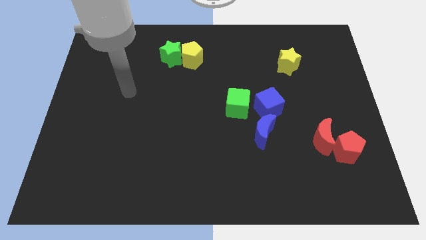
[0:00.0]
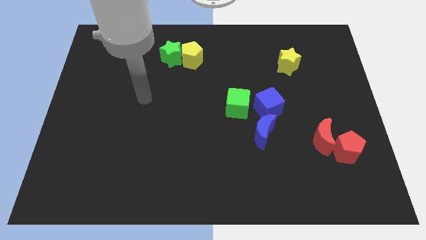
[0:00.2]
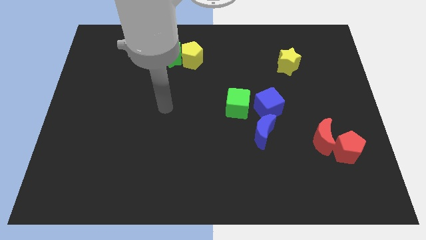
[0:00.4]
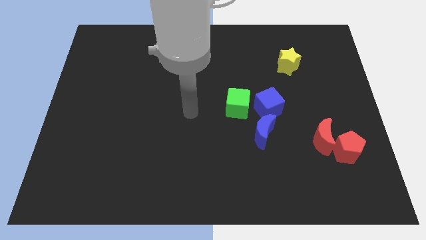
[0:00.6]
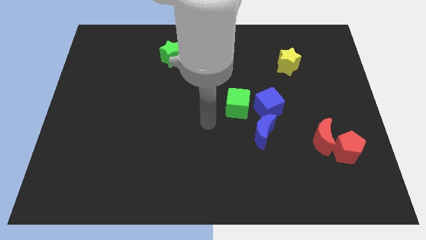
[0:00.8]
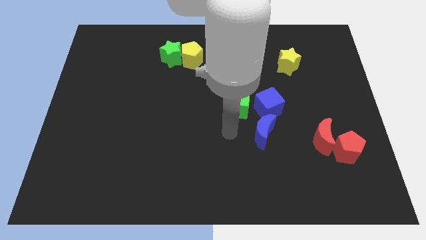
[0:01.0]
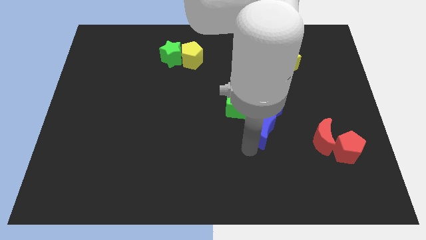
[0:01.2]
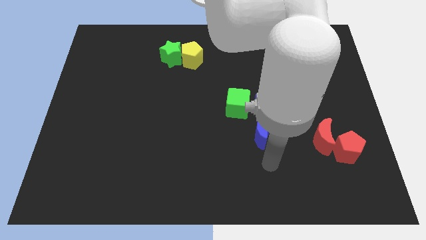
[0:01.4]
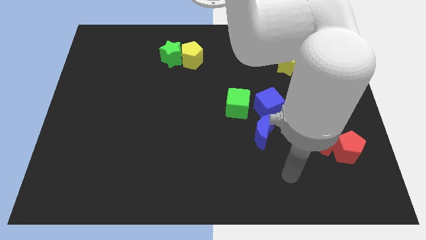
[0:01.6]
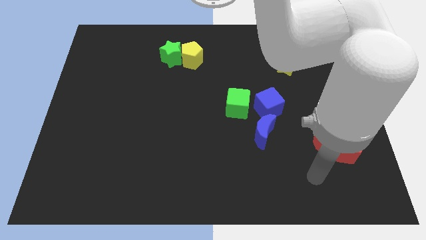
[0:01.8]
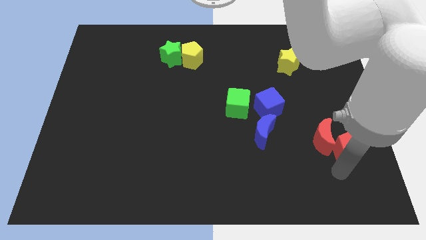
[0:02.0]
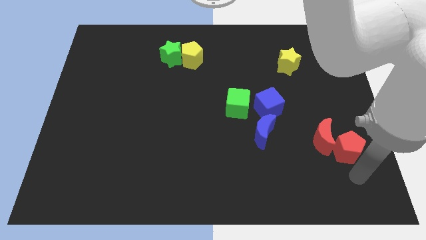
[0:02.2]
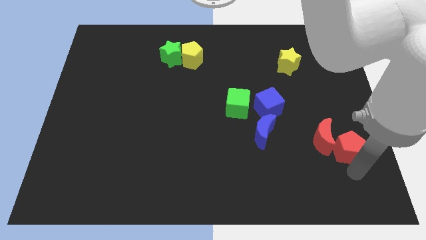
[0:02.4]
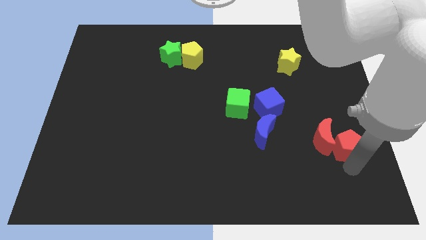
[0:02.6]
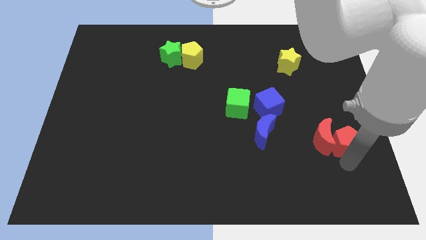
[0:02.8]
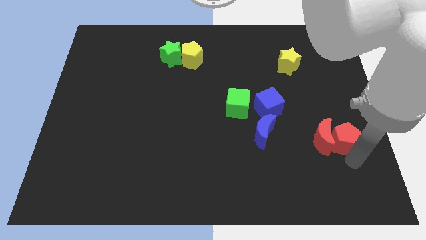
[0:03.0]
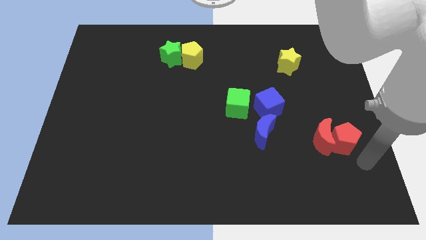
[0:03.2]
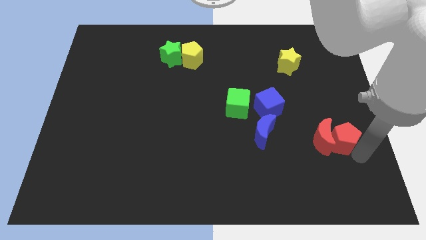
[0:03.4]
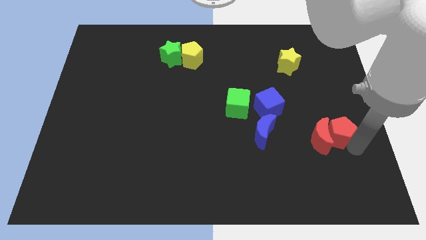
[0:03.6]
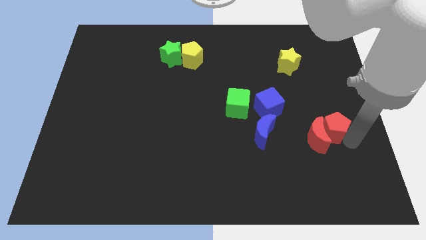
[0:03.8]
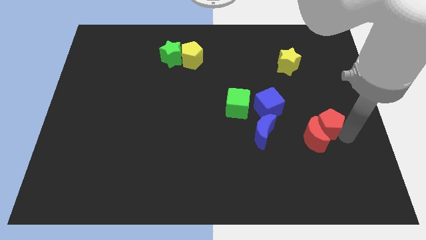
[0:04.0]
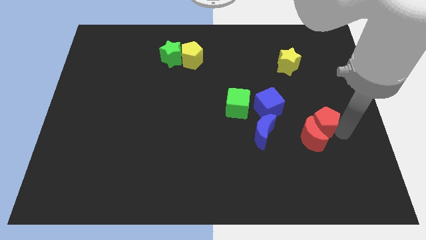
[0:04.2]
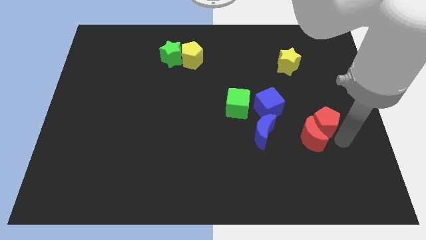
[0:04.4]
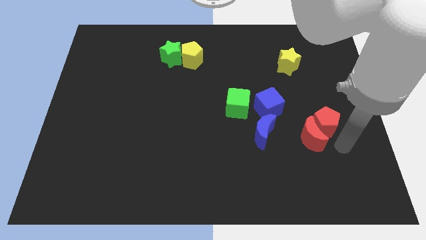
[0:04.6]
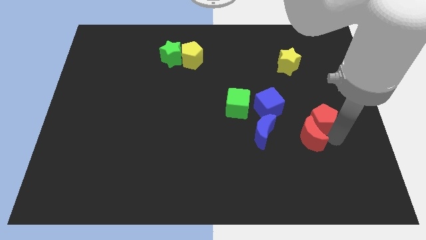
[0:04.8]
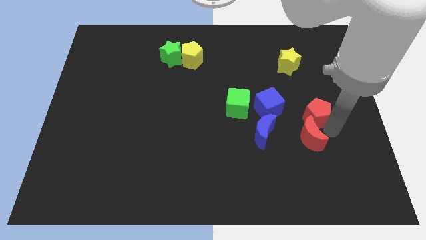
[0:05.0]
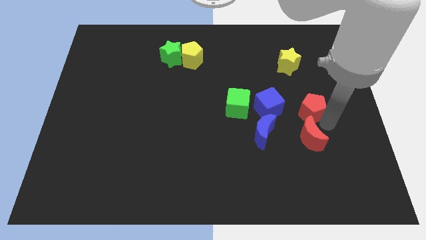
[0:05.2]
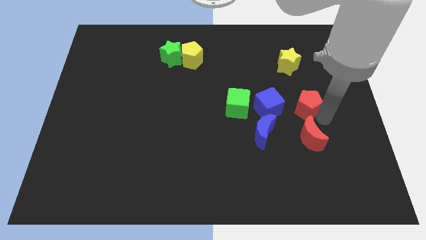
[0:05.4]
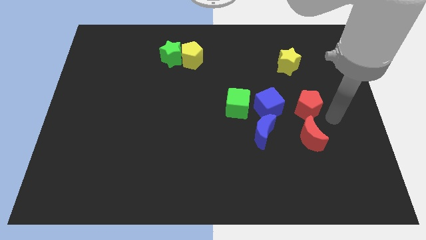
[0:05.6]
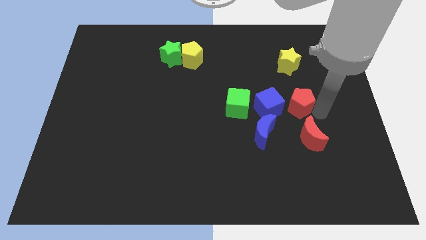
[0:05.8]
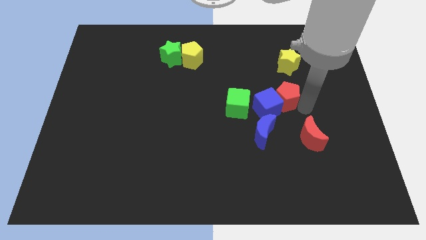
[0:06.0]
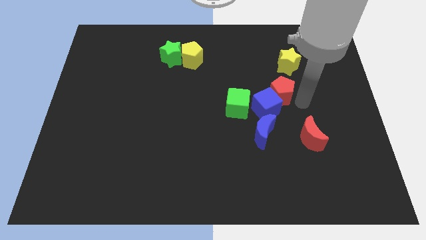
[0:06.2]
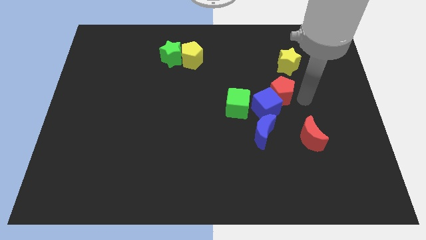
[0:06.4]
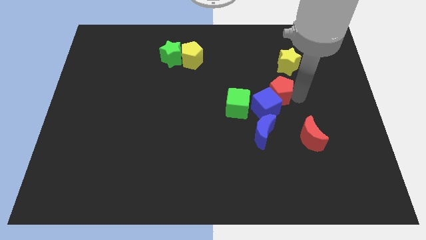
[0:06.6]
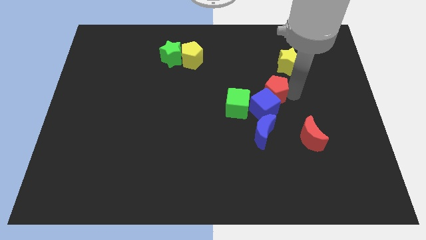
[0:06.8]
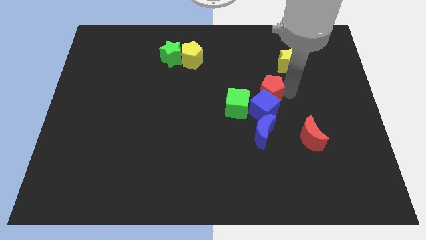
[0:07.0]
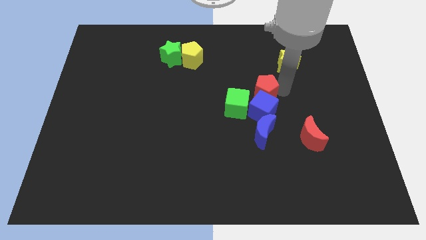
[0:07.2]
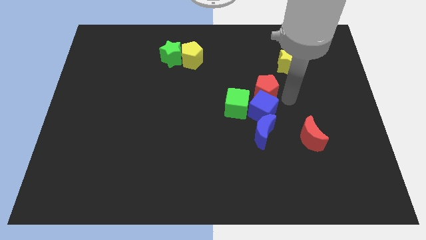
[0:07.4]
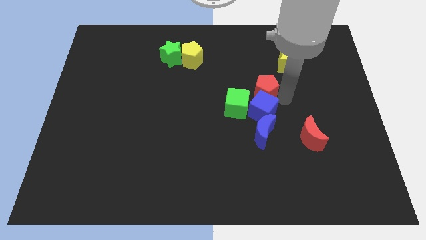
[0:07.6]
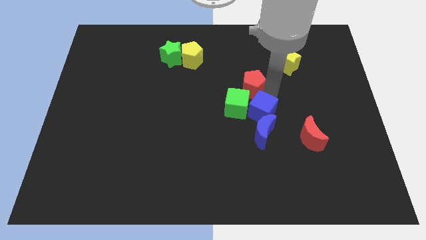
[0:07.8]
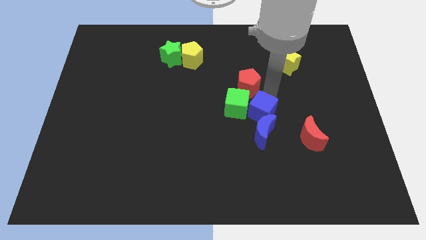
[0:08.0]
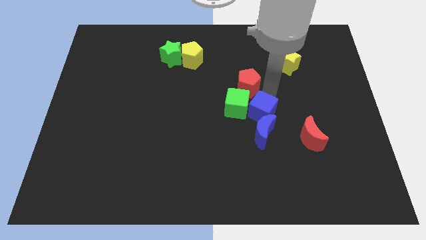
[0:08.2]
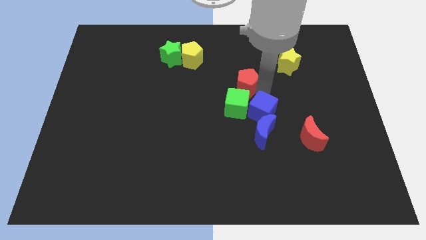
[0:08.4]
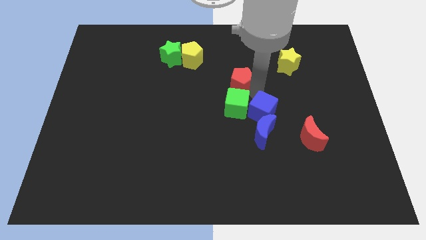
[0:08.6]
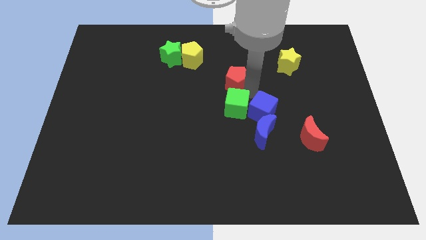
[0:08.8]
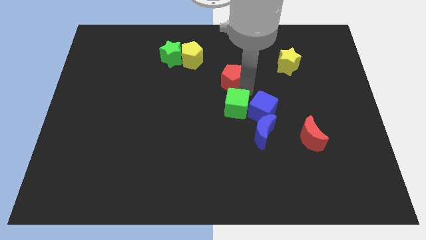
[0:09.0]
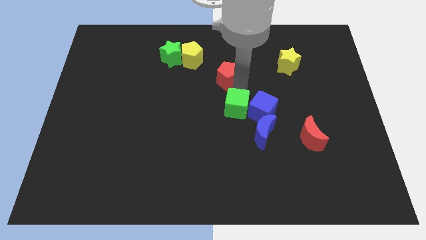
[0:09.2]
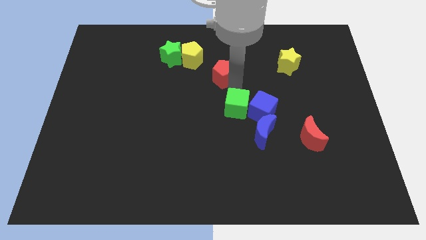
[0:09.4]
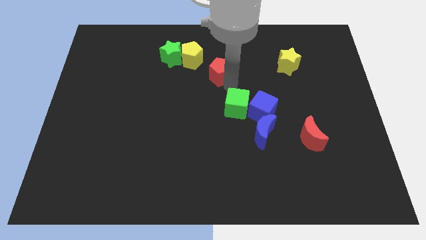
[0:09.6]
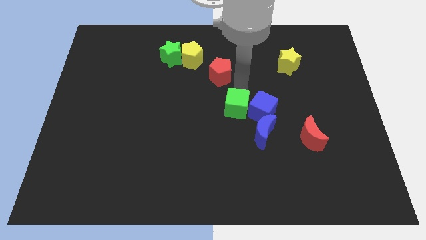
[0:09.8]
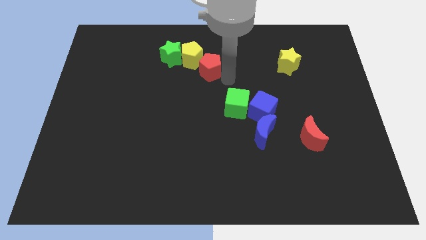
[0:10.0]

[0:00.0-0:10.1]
slide the red pentagon to the yellow pentagon

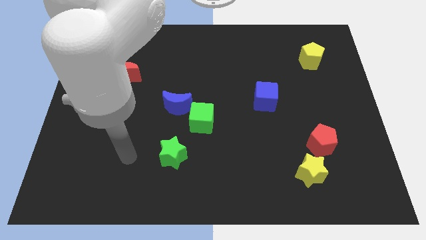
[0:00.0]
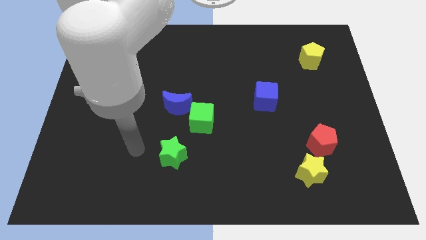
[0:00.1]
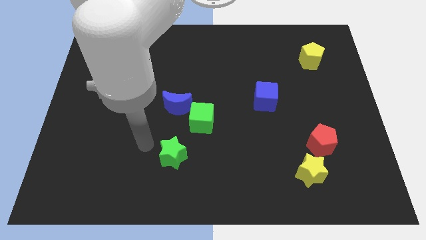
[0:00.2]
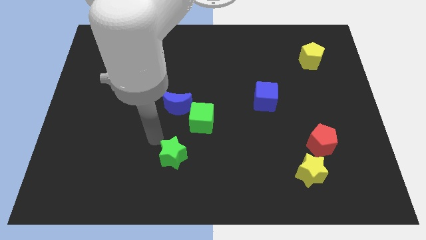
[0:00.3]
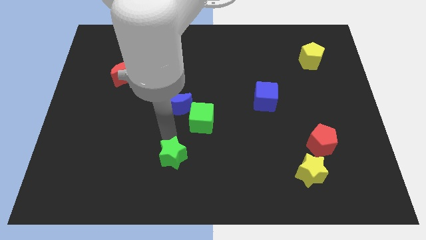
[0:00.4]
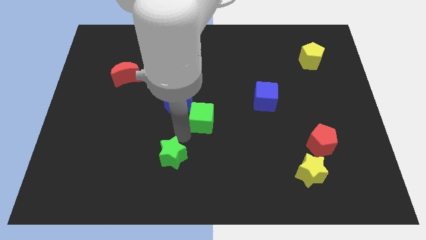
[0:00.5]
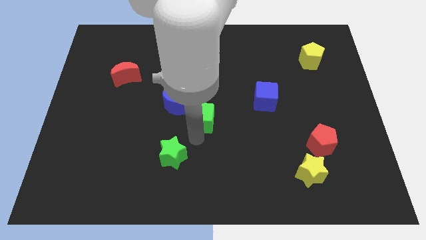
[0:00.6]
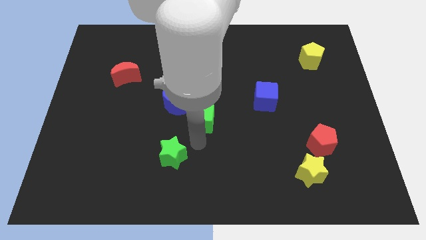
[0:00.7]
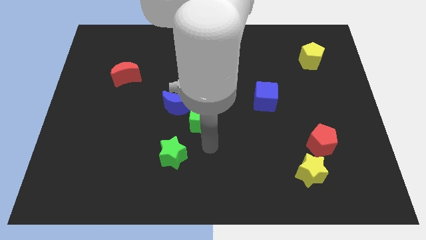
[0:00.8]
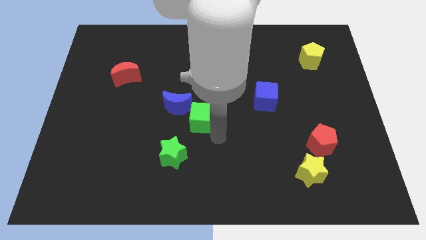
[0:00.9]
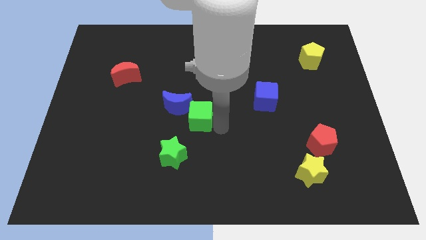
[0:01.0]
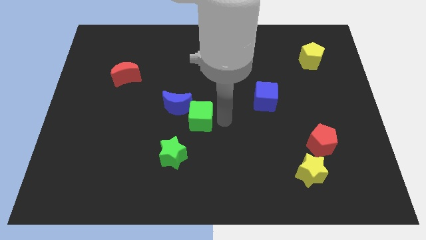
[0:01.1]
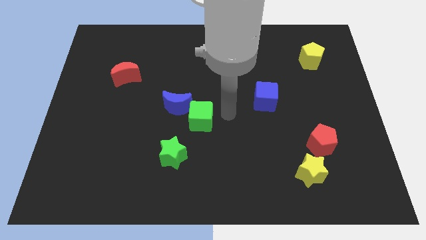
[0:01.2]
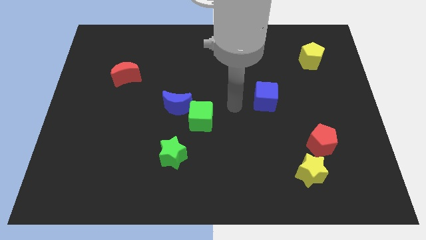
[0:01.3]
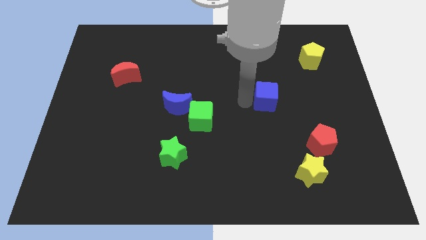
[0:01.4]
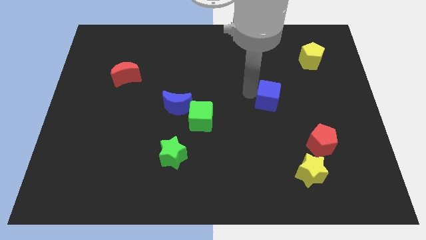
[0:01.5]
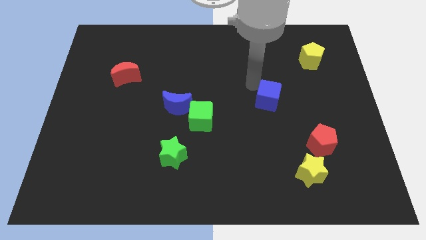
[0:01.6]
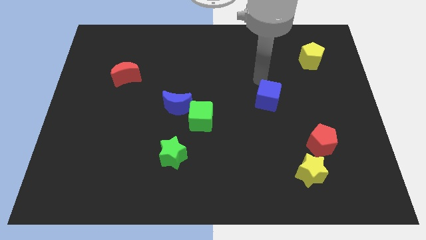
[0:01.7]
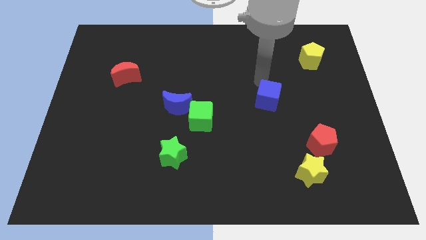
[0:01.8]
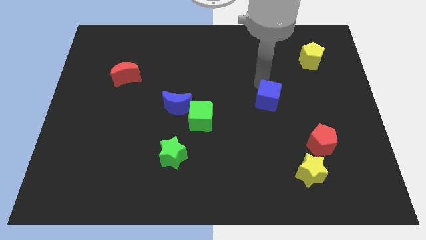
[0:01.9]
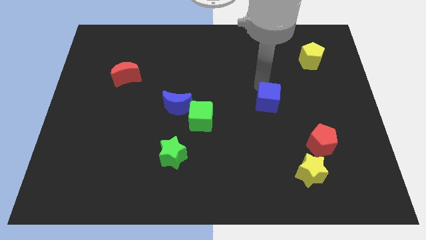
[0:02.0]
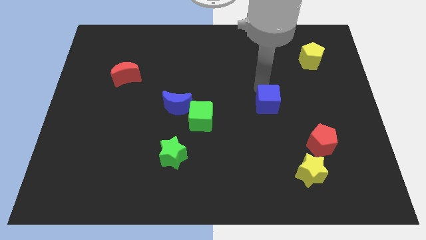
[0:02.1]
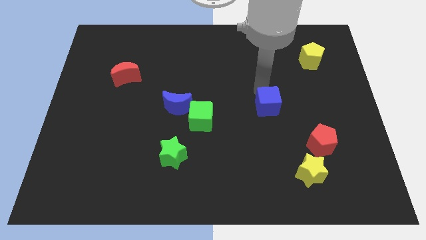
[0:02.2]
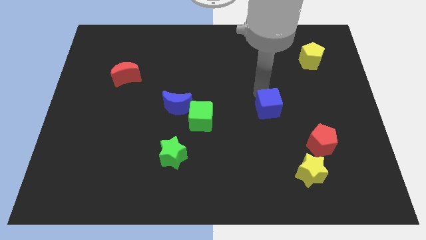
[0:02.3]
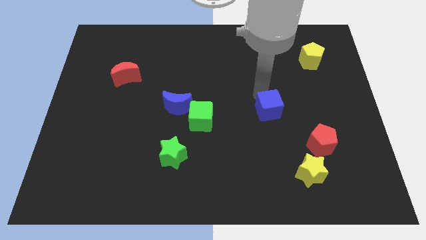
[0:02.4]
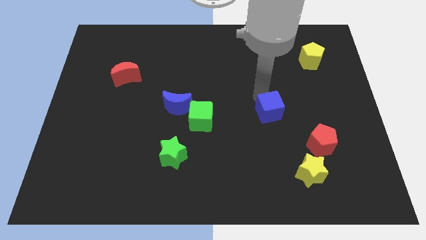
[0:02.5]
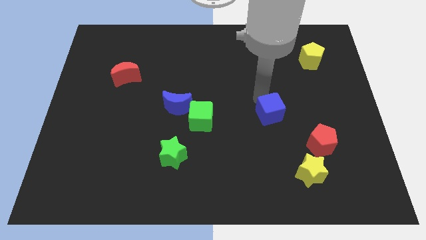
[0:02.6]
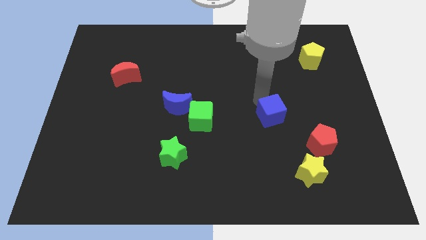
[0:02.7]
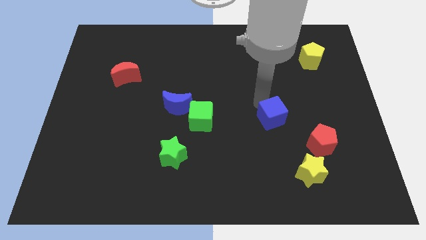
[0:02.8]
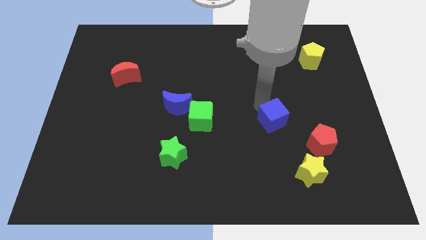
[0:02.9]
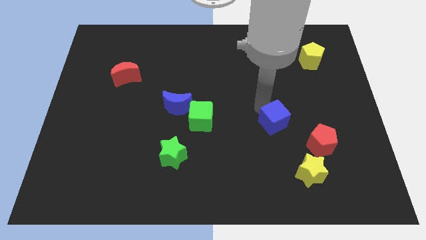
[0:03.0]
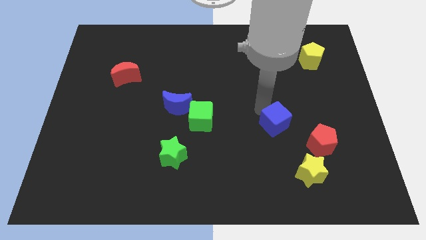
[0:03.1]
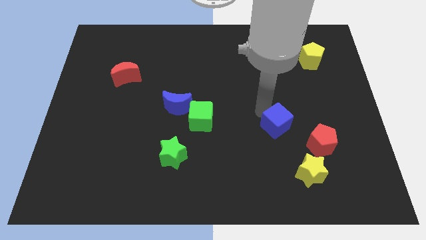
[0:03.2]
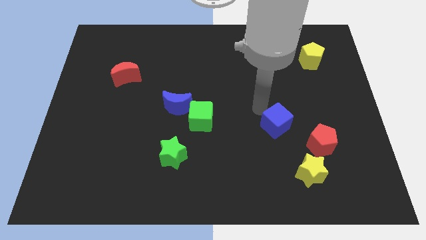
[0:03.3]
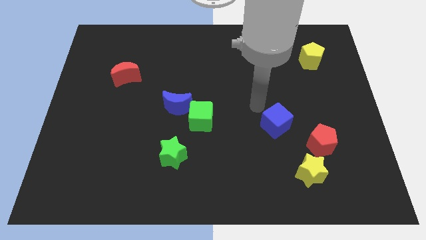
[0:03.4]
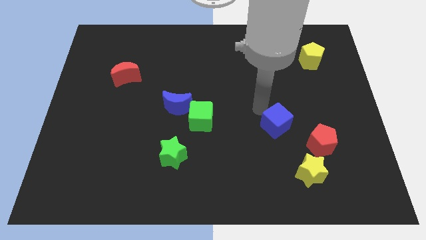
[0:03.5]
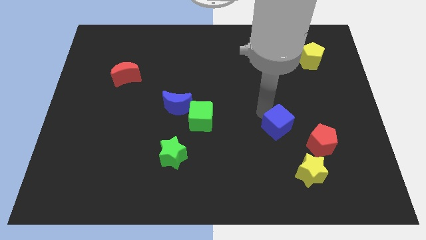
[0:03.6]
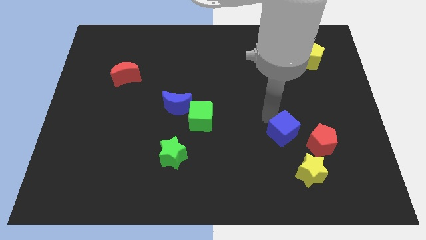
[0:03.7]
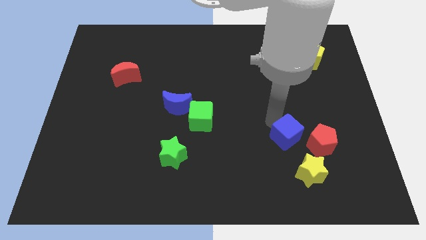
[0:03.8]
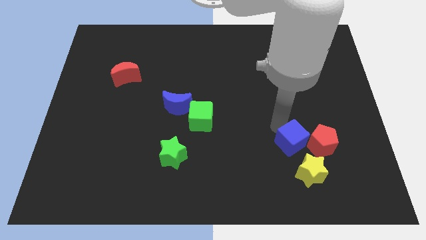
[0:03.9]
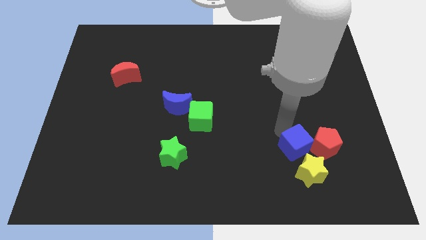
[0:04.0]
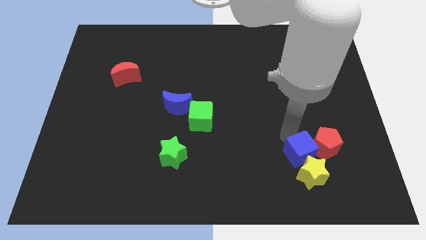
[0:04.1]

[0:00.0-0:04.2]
slide the blue cube to the yellow star
